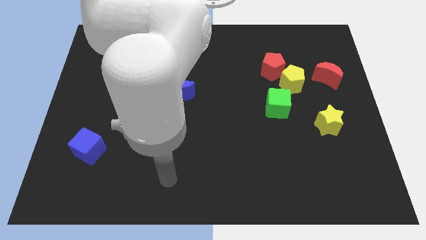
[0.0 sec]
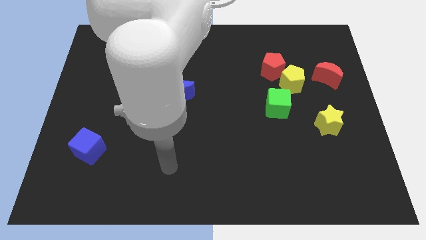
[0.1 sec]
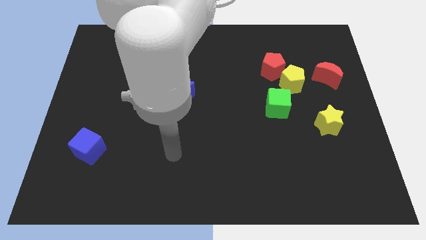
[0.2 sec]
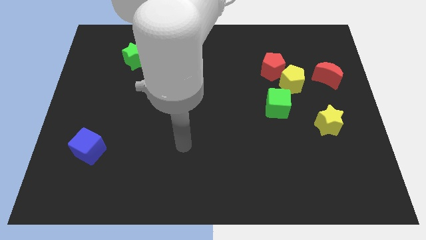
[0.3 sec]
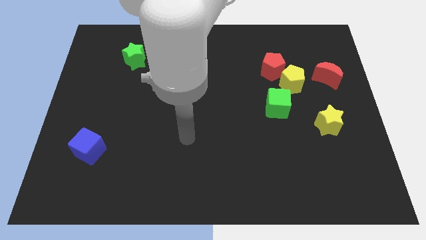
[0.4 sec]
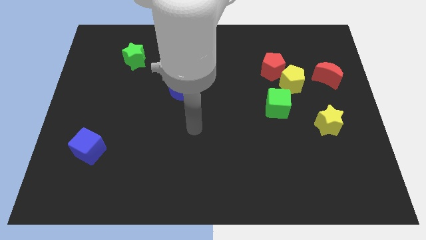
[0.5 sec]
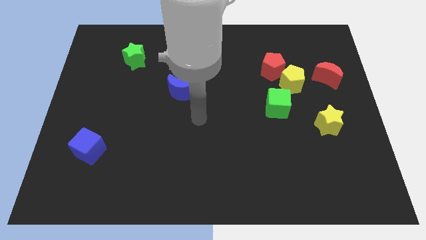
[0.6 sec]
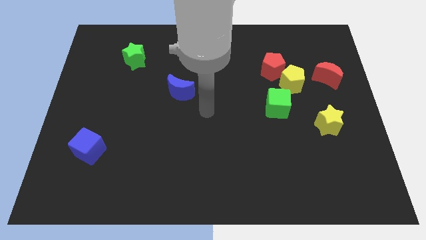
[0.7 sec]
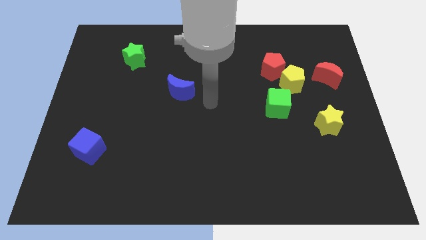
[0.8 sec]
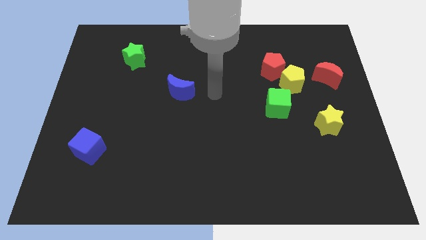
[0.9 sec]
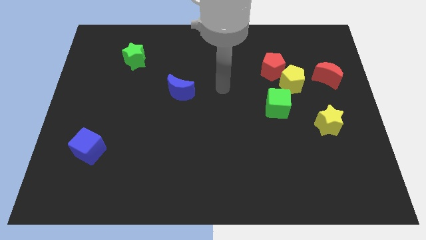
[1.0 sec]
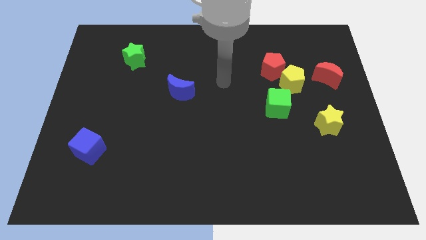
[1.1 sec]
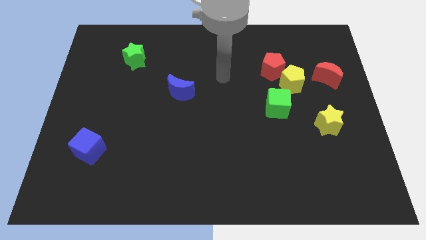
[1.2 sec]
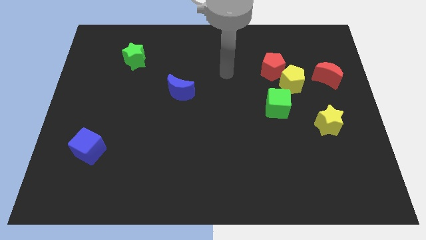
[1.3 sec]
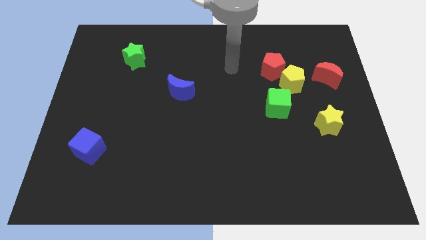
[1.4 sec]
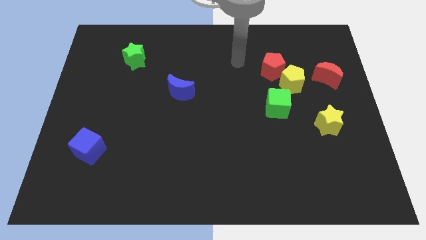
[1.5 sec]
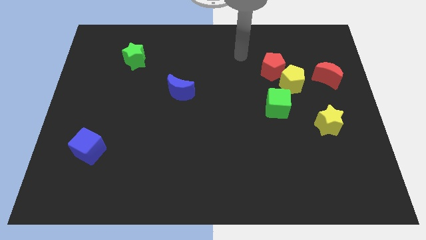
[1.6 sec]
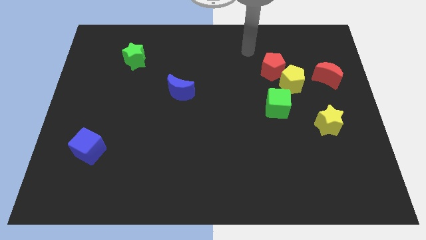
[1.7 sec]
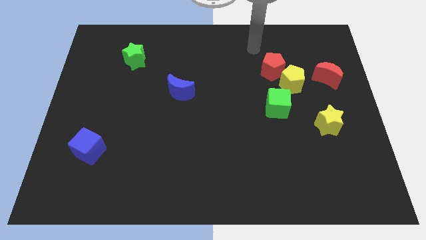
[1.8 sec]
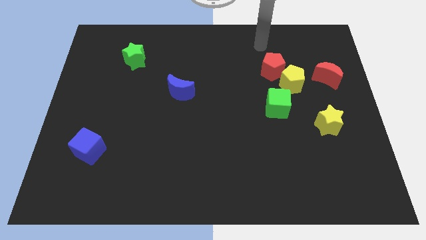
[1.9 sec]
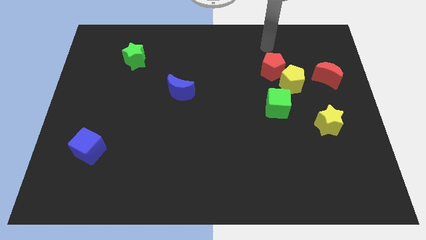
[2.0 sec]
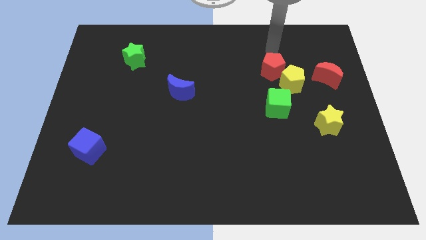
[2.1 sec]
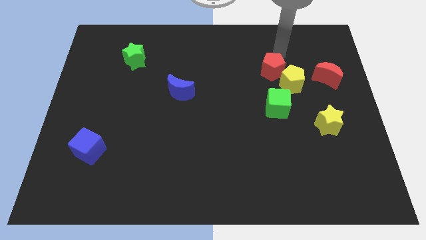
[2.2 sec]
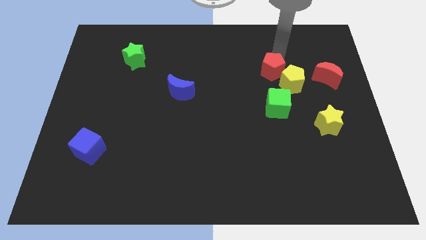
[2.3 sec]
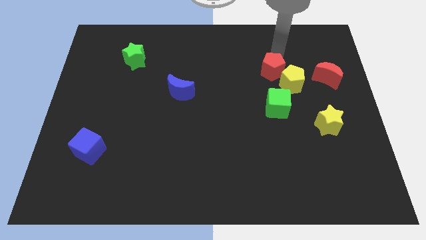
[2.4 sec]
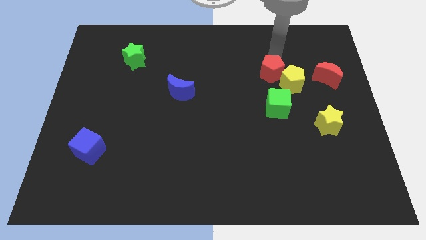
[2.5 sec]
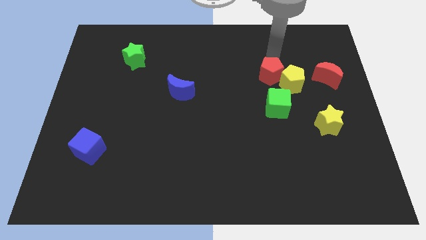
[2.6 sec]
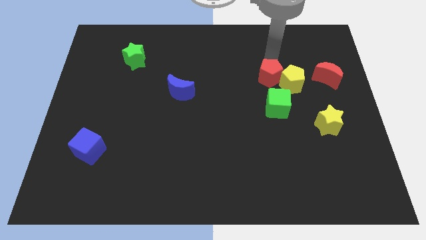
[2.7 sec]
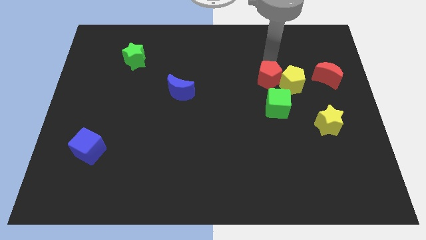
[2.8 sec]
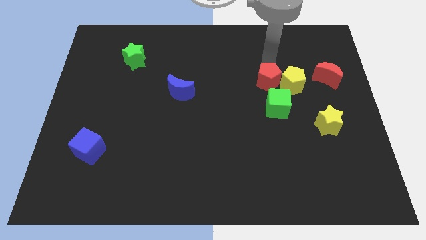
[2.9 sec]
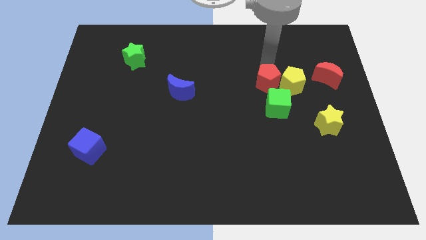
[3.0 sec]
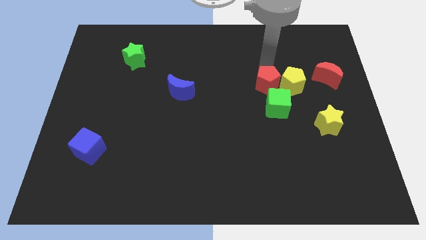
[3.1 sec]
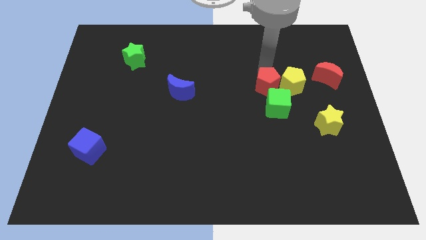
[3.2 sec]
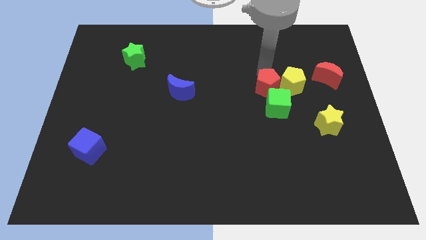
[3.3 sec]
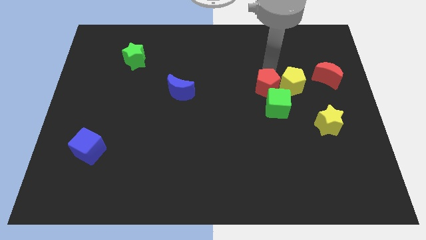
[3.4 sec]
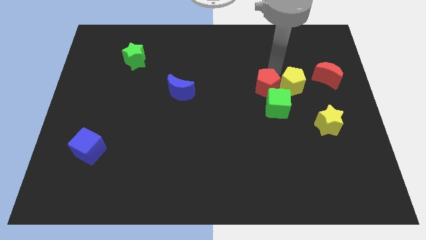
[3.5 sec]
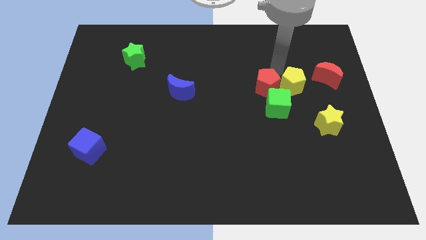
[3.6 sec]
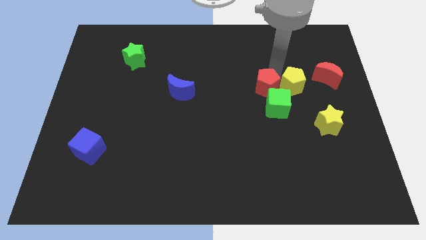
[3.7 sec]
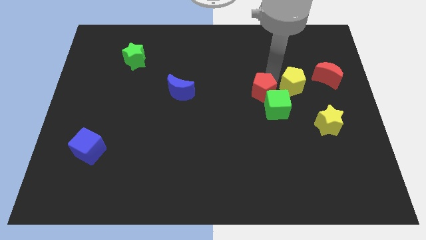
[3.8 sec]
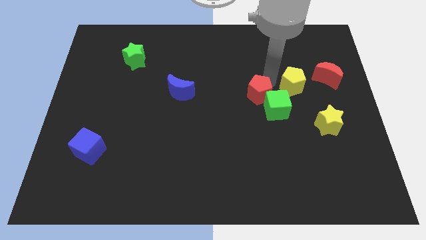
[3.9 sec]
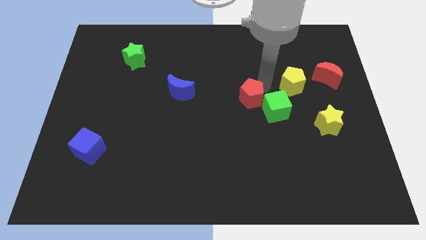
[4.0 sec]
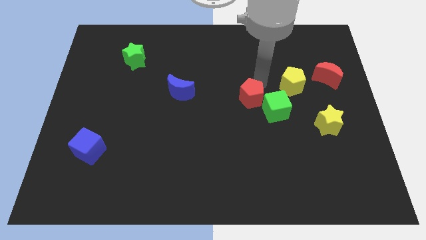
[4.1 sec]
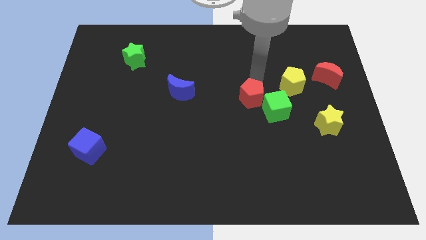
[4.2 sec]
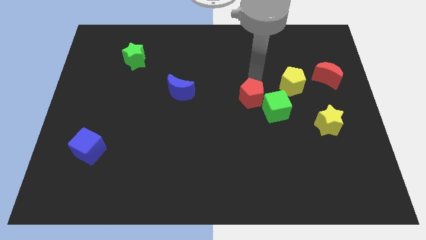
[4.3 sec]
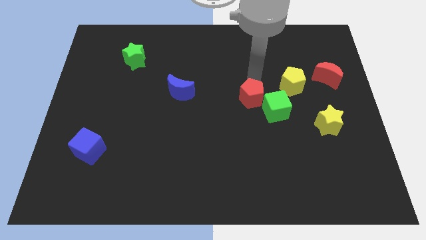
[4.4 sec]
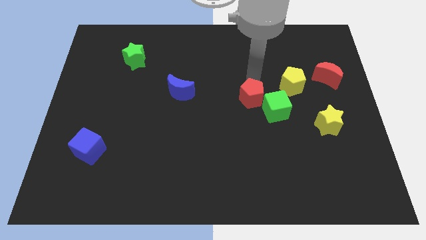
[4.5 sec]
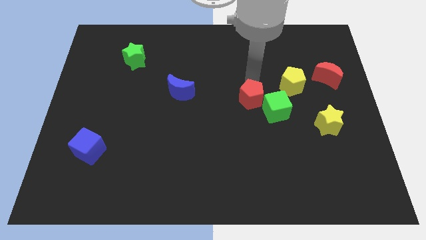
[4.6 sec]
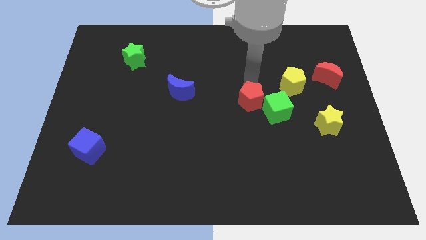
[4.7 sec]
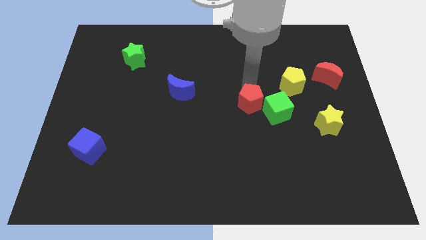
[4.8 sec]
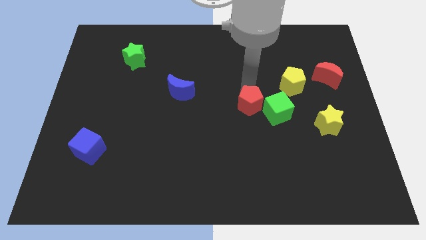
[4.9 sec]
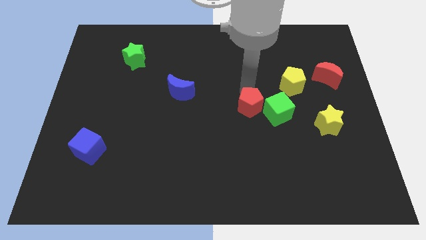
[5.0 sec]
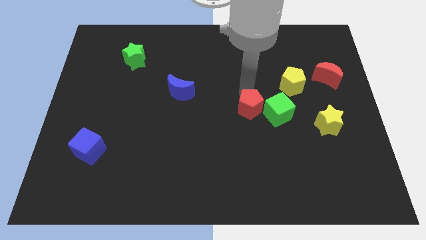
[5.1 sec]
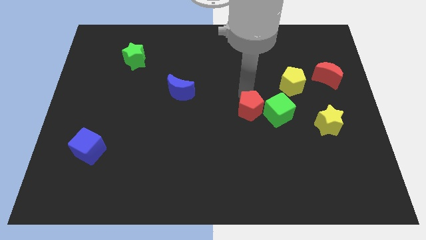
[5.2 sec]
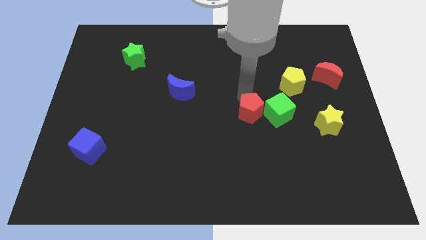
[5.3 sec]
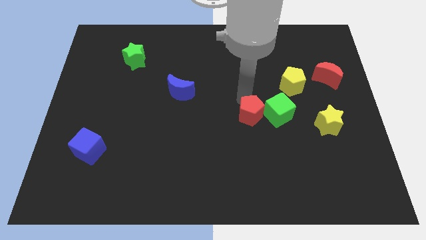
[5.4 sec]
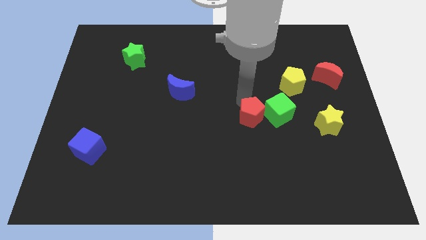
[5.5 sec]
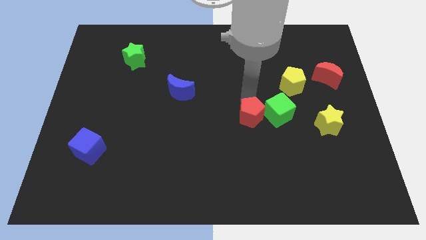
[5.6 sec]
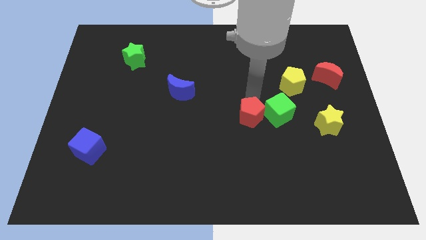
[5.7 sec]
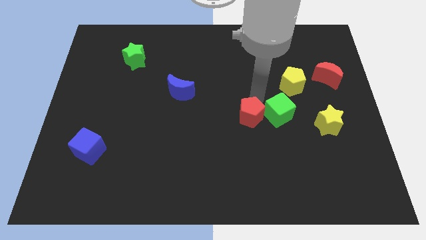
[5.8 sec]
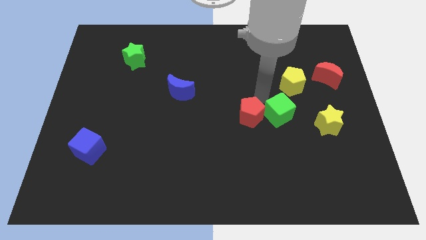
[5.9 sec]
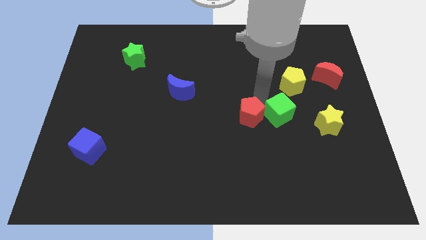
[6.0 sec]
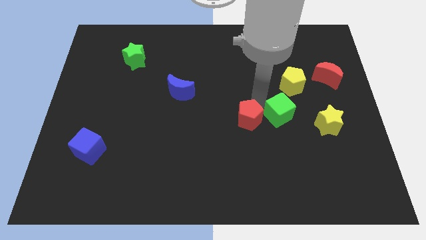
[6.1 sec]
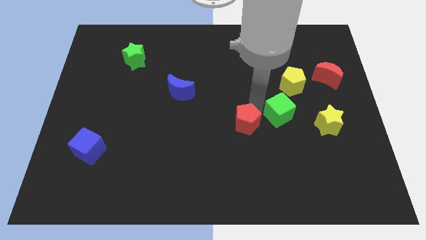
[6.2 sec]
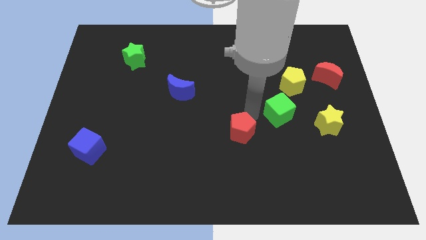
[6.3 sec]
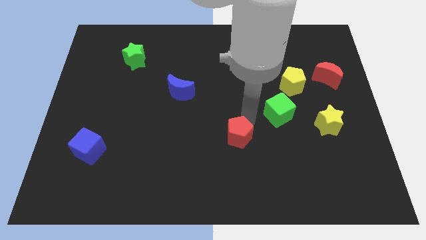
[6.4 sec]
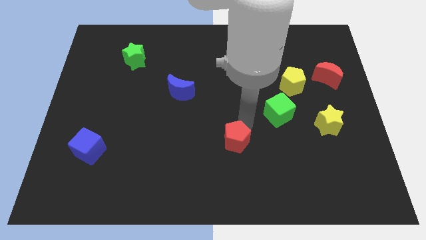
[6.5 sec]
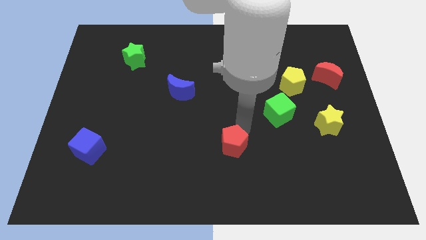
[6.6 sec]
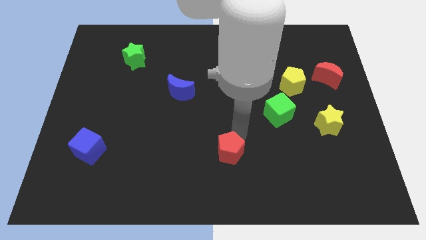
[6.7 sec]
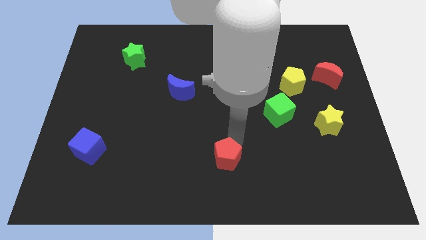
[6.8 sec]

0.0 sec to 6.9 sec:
move the red pentagon to the bottom
